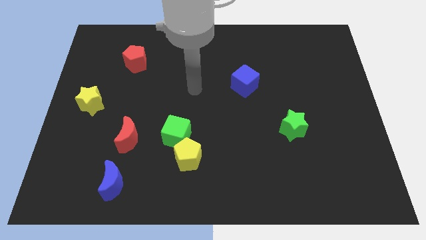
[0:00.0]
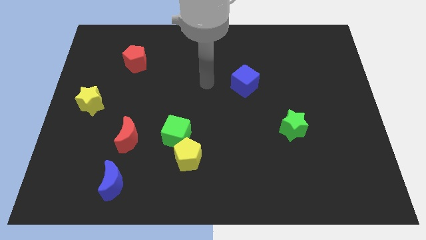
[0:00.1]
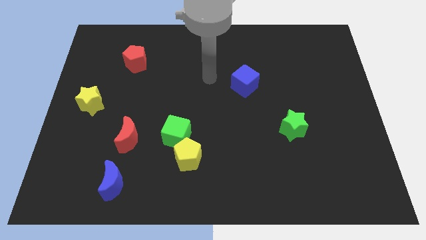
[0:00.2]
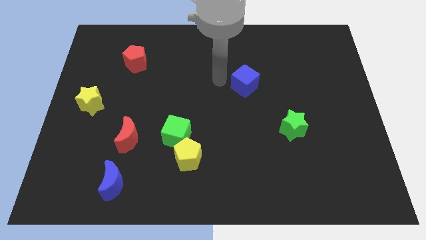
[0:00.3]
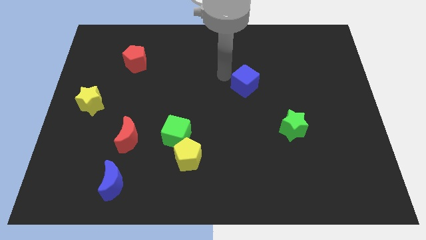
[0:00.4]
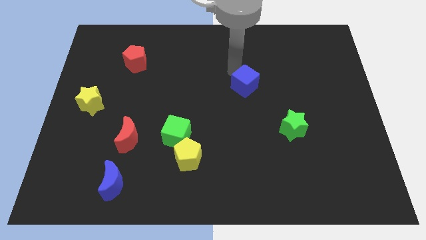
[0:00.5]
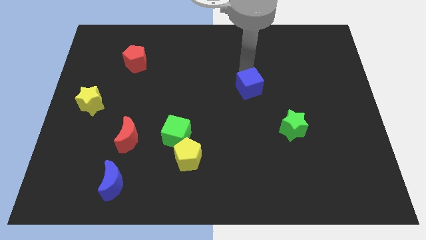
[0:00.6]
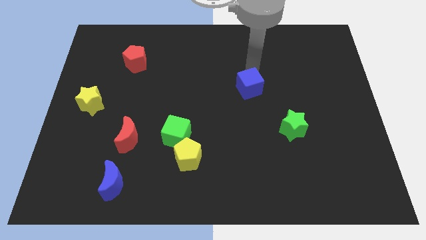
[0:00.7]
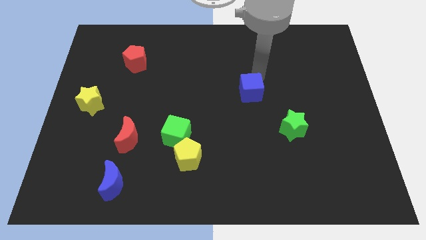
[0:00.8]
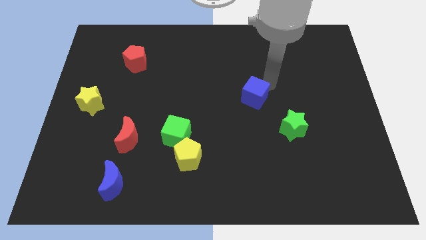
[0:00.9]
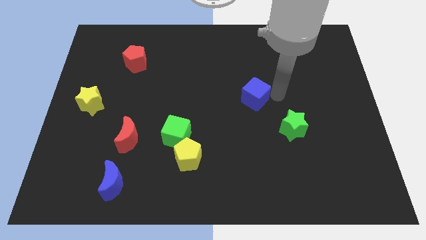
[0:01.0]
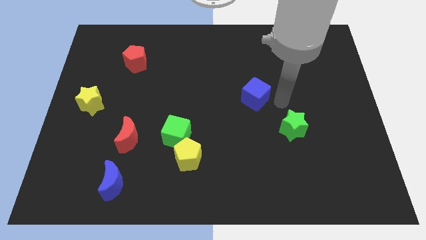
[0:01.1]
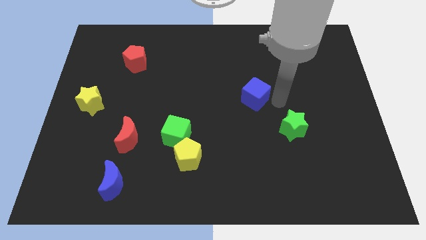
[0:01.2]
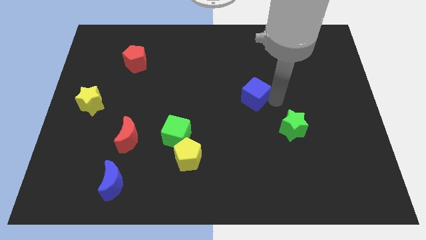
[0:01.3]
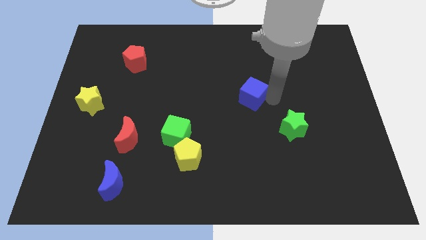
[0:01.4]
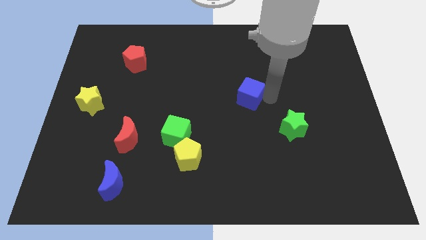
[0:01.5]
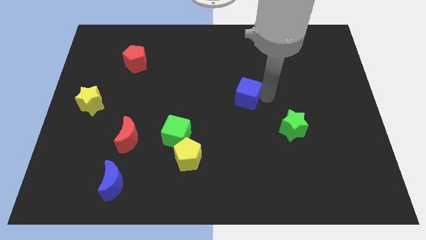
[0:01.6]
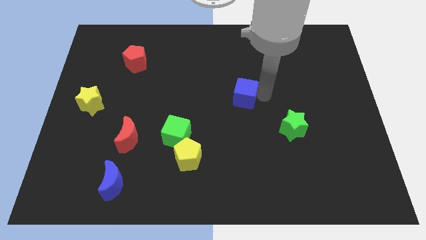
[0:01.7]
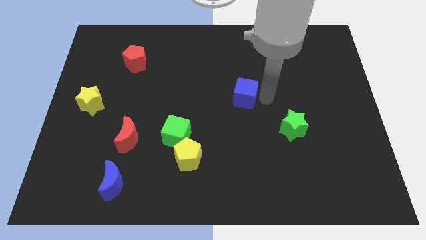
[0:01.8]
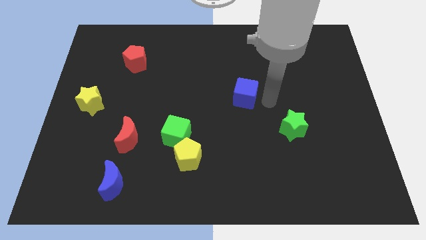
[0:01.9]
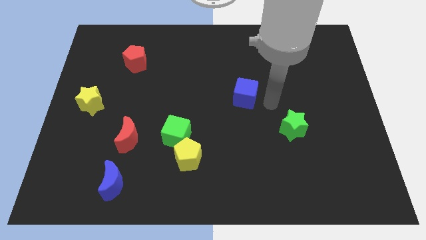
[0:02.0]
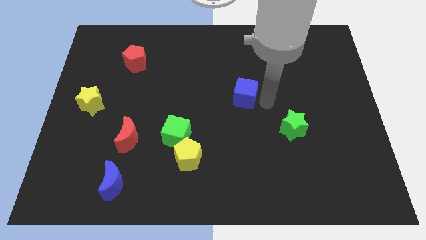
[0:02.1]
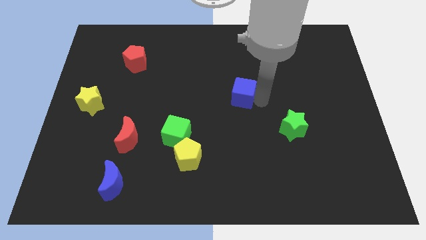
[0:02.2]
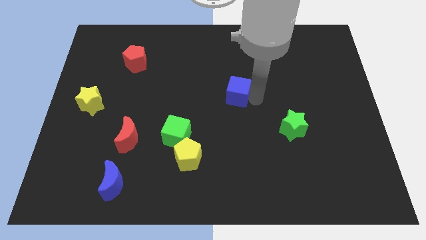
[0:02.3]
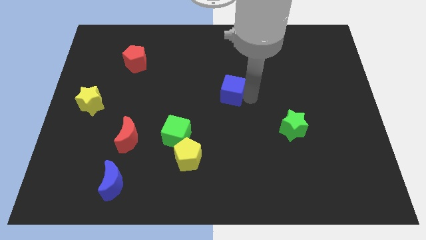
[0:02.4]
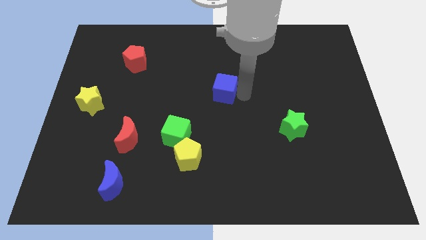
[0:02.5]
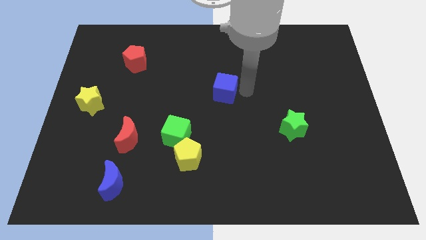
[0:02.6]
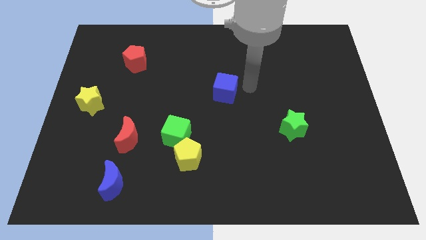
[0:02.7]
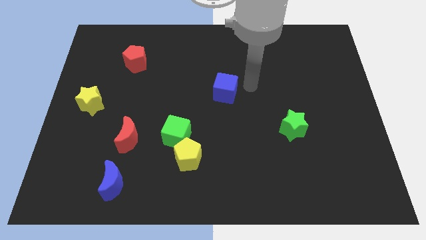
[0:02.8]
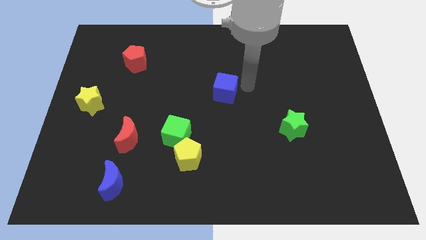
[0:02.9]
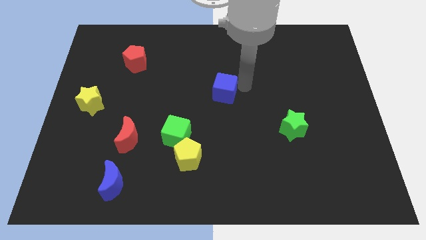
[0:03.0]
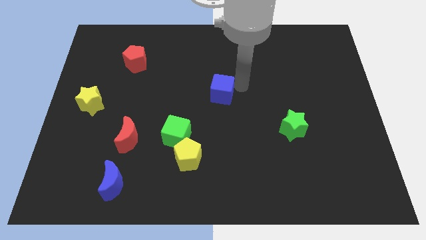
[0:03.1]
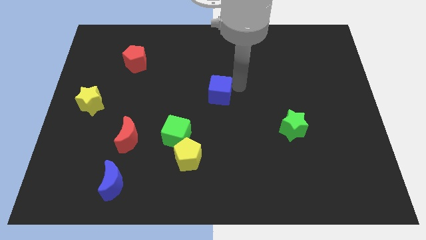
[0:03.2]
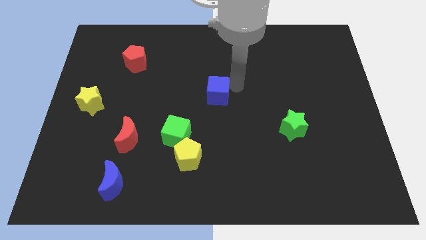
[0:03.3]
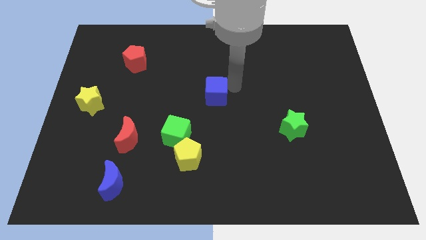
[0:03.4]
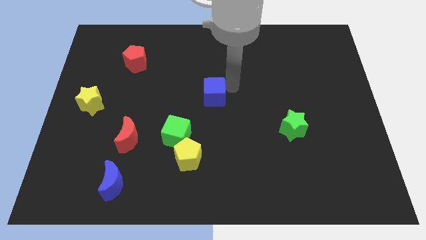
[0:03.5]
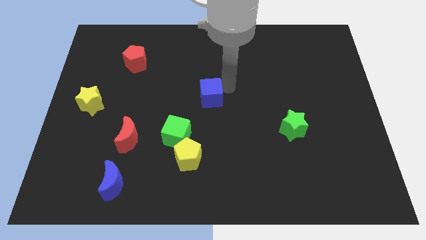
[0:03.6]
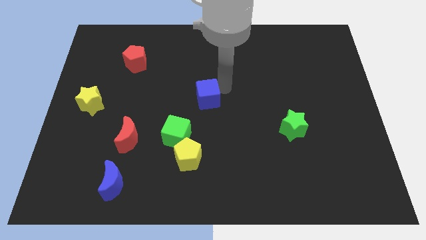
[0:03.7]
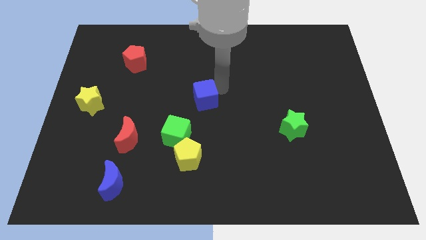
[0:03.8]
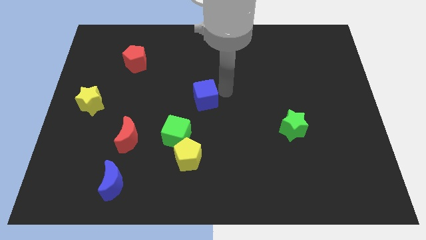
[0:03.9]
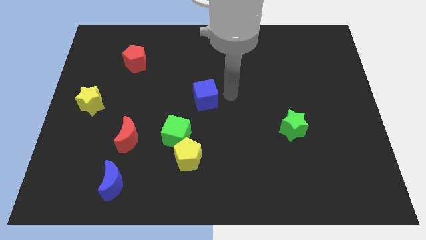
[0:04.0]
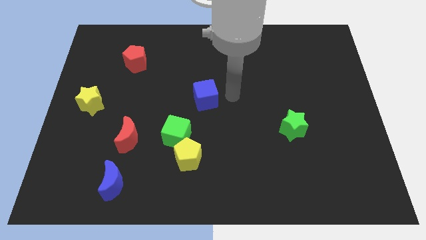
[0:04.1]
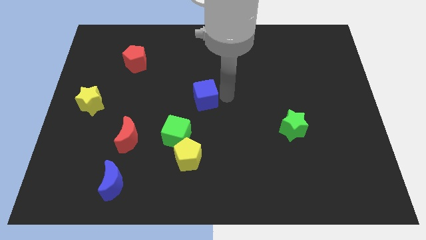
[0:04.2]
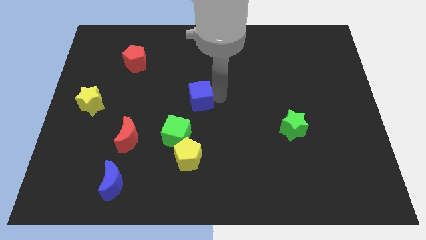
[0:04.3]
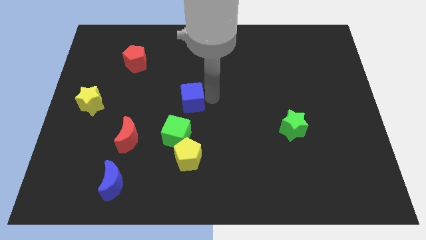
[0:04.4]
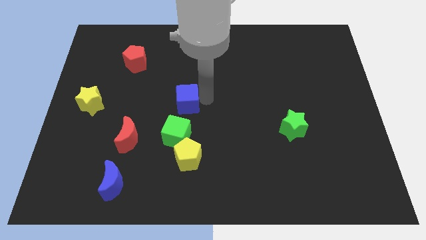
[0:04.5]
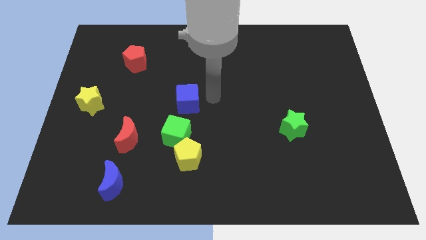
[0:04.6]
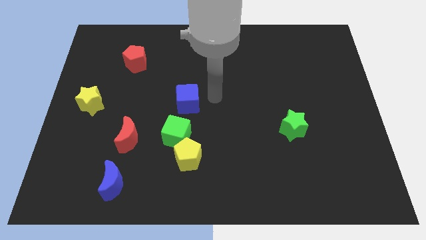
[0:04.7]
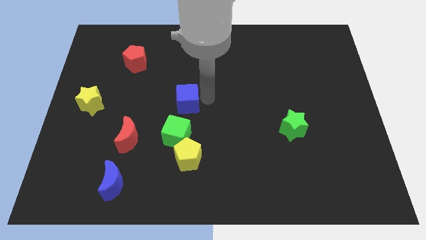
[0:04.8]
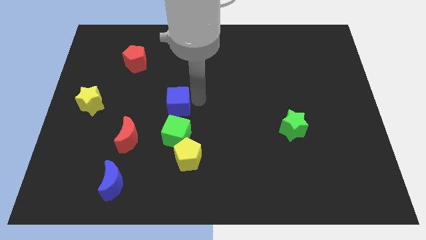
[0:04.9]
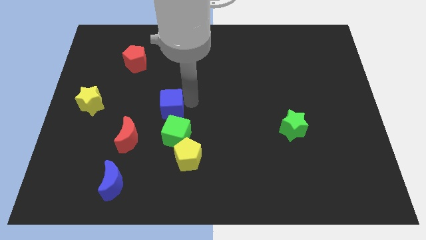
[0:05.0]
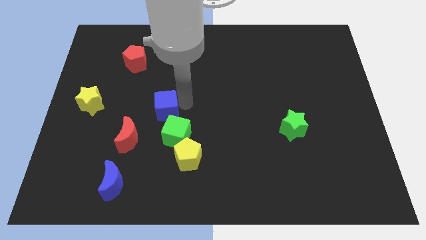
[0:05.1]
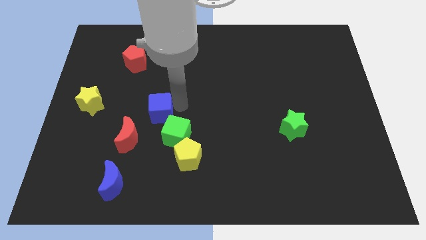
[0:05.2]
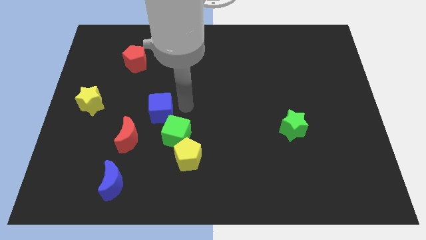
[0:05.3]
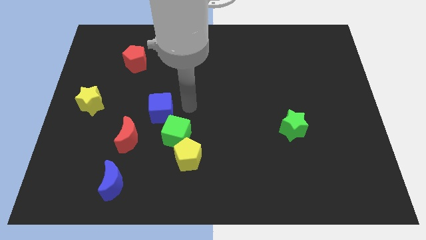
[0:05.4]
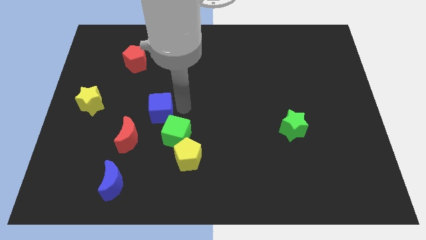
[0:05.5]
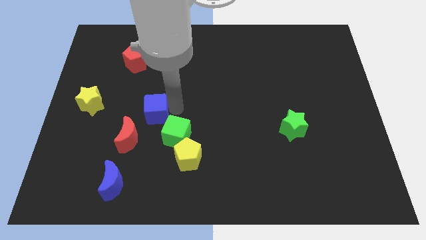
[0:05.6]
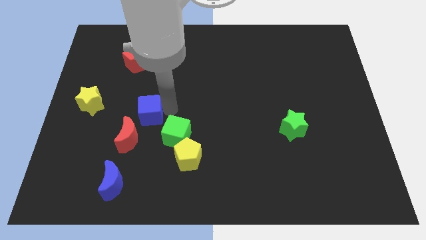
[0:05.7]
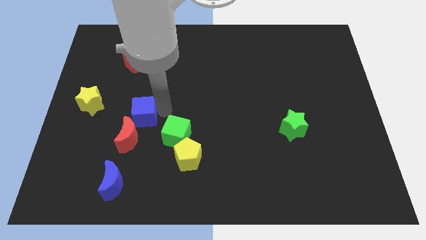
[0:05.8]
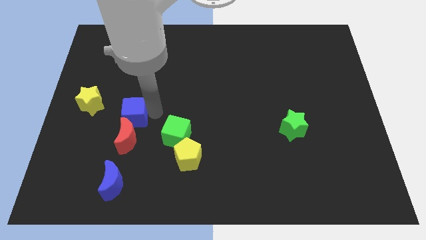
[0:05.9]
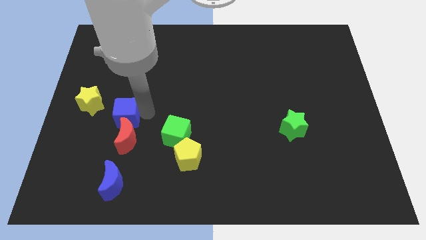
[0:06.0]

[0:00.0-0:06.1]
move the blue cube to the bottom right side of the yellow star

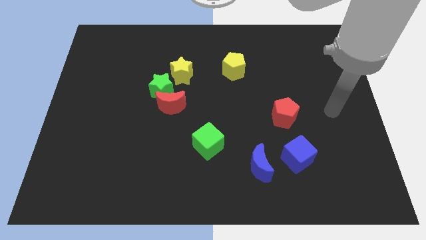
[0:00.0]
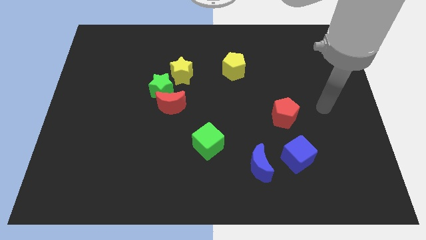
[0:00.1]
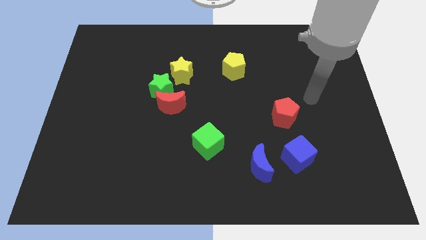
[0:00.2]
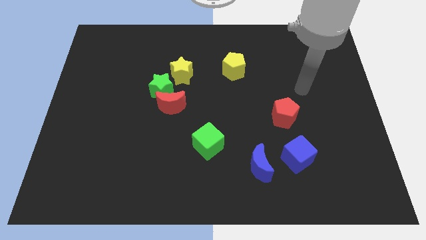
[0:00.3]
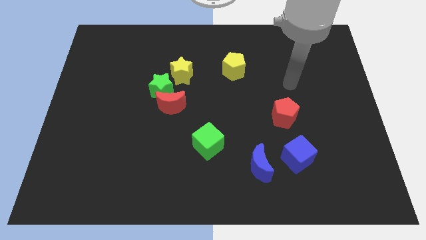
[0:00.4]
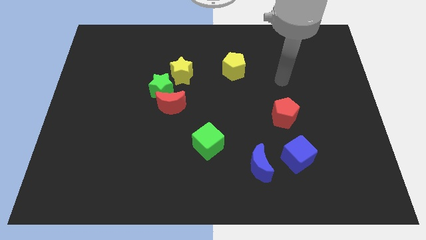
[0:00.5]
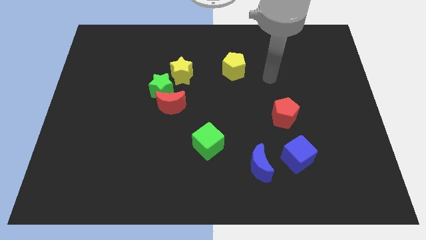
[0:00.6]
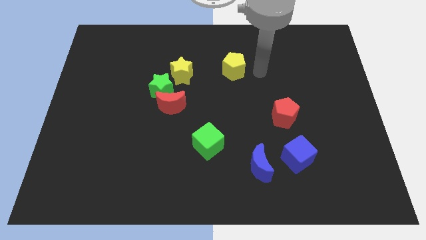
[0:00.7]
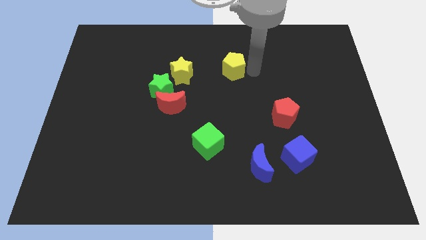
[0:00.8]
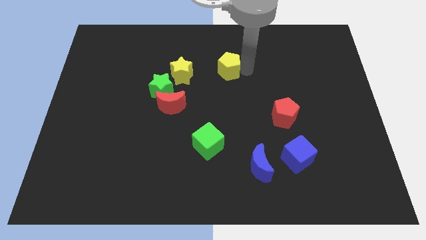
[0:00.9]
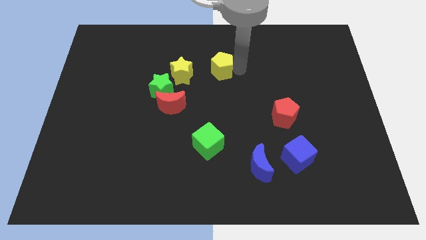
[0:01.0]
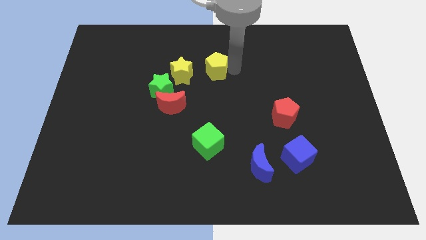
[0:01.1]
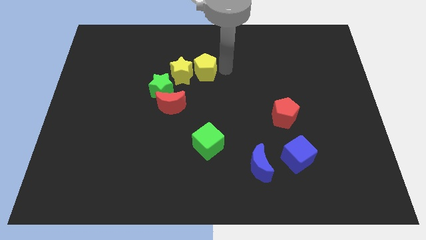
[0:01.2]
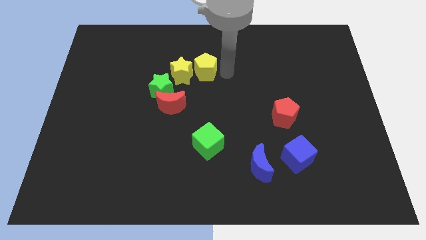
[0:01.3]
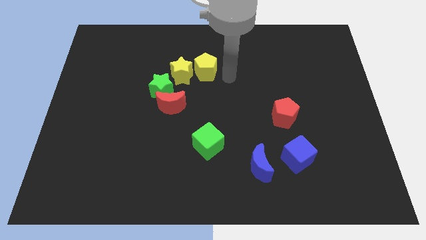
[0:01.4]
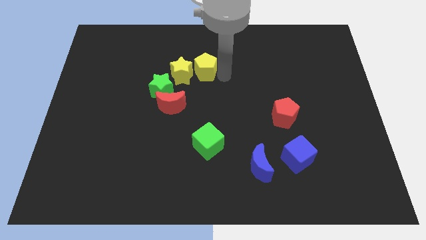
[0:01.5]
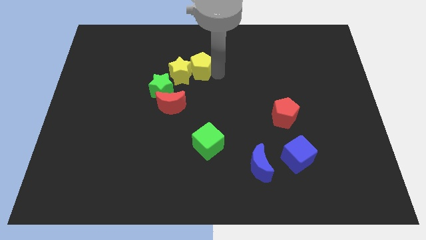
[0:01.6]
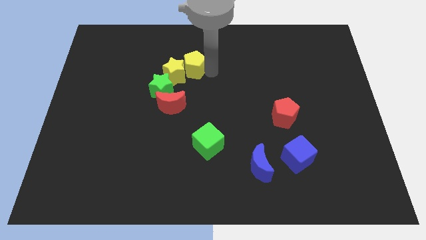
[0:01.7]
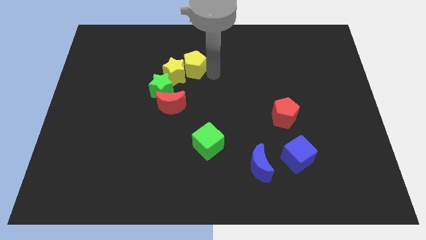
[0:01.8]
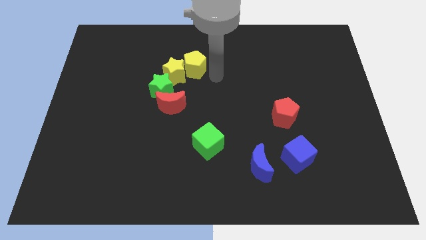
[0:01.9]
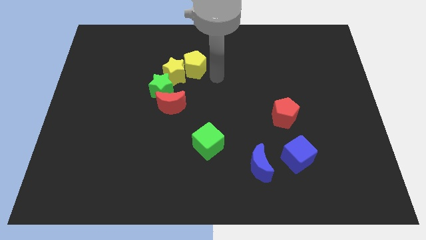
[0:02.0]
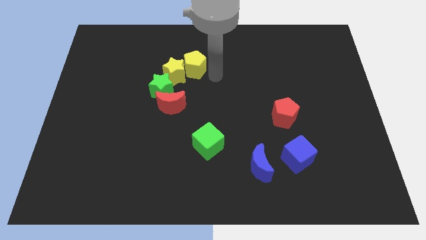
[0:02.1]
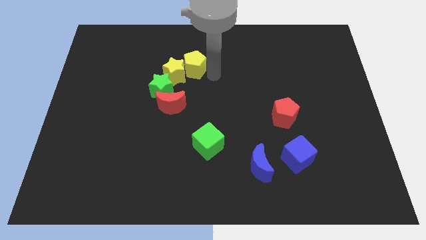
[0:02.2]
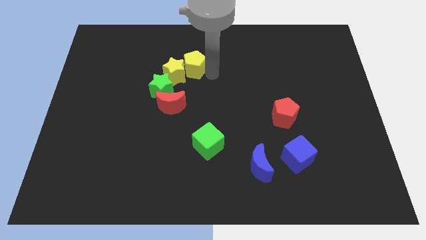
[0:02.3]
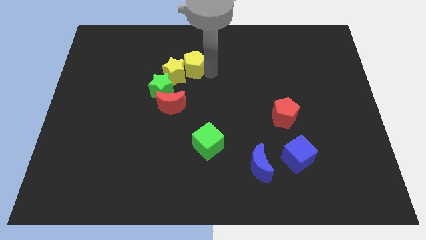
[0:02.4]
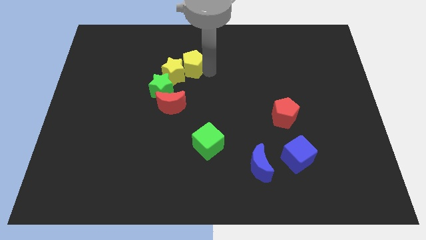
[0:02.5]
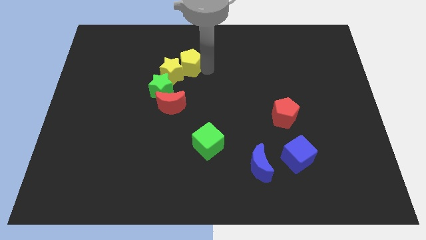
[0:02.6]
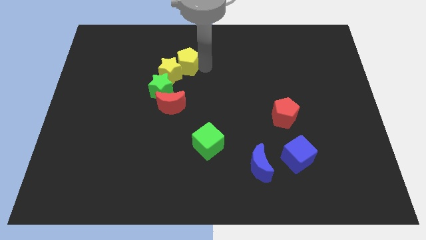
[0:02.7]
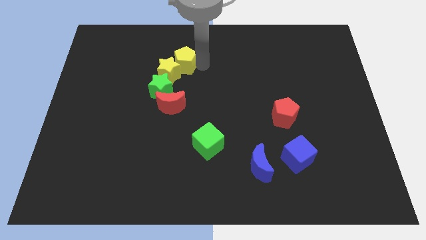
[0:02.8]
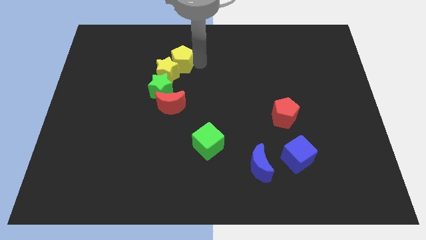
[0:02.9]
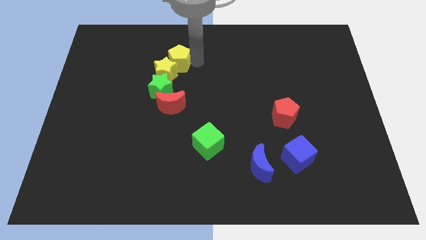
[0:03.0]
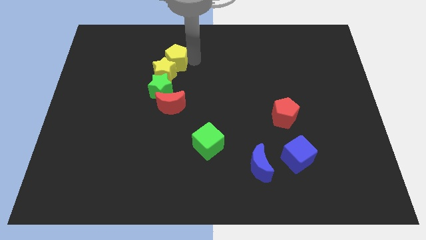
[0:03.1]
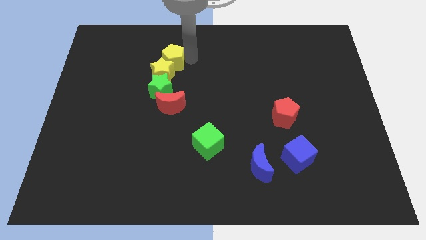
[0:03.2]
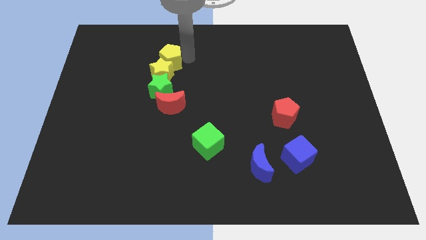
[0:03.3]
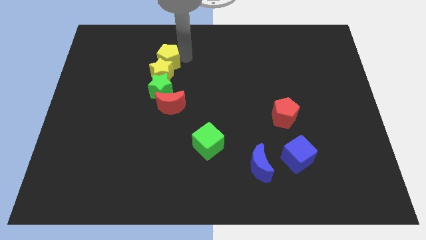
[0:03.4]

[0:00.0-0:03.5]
slide the yellow pentagon to the top left of the yellow star
